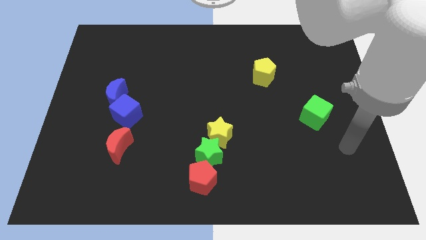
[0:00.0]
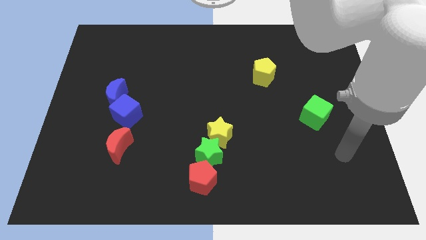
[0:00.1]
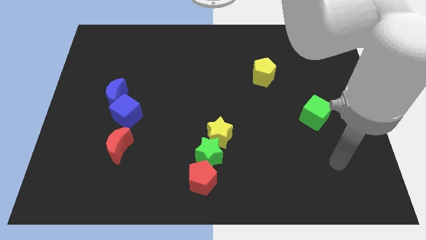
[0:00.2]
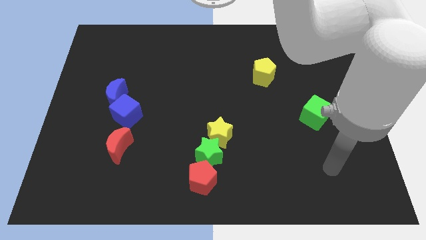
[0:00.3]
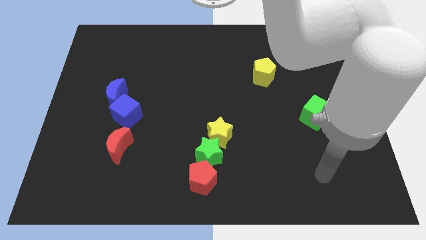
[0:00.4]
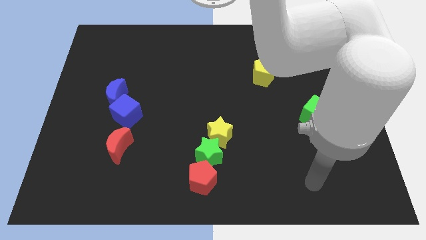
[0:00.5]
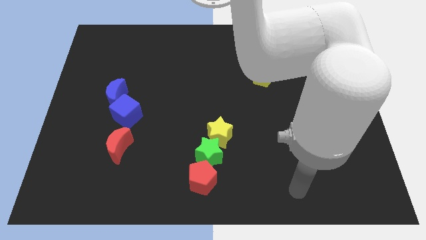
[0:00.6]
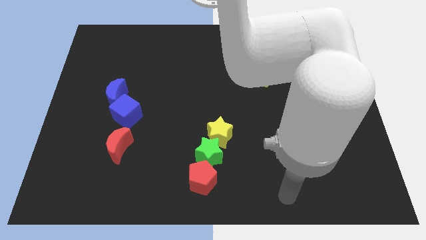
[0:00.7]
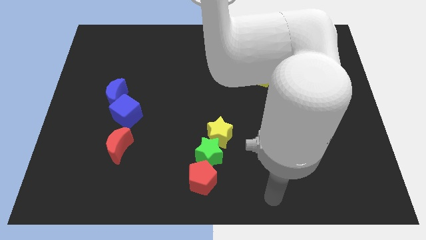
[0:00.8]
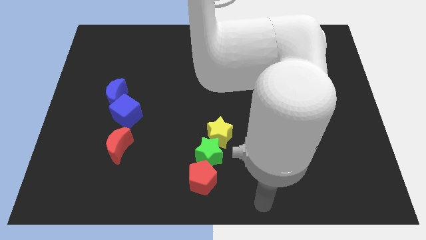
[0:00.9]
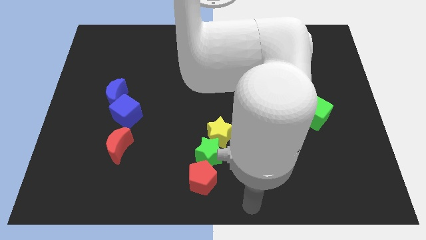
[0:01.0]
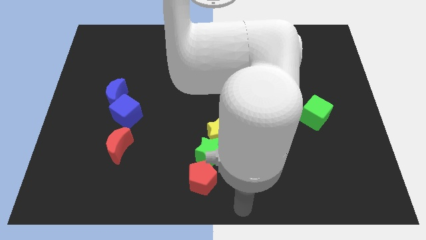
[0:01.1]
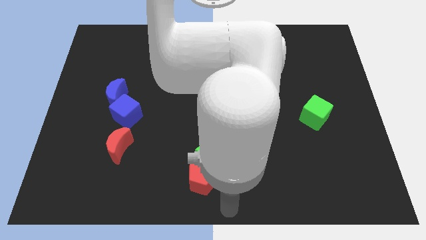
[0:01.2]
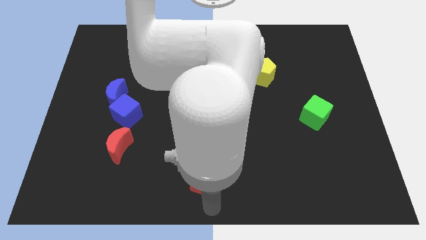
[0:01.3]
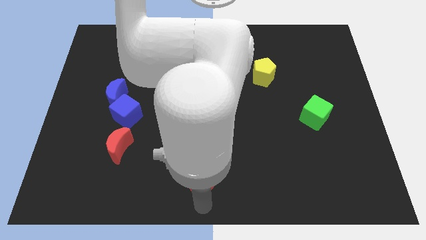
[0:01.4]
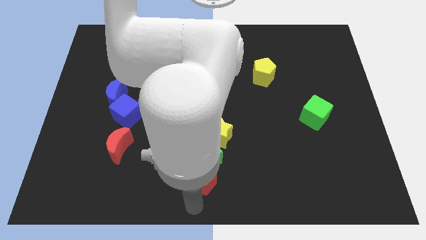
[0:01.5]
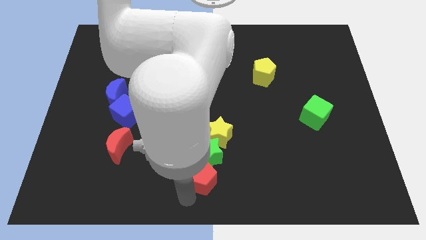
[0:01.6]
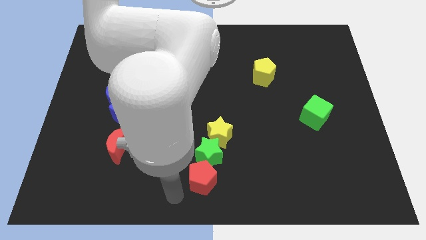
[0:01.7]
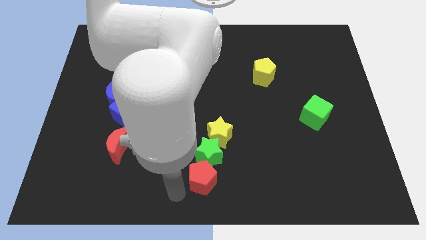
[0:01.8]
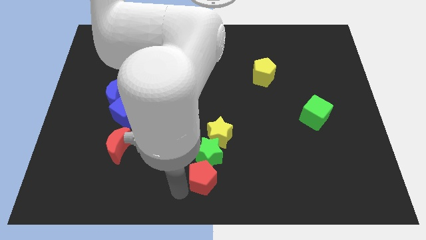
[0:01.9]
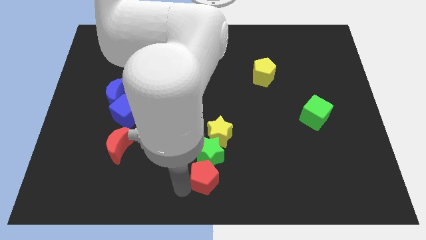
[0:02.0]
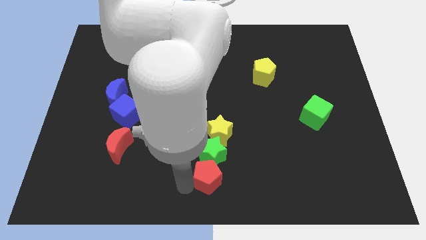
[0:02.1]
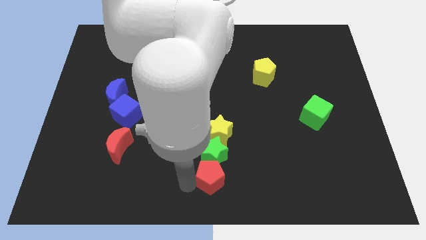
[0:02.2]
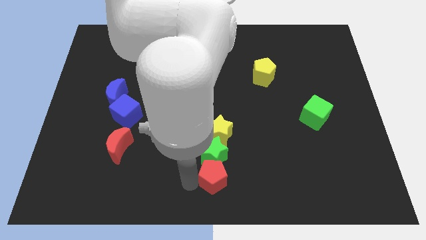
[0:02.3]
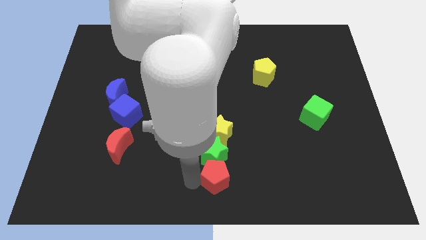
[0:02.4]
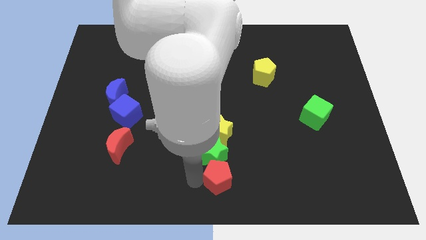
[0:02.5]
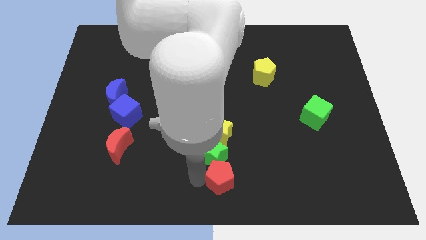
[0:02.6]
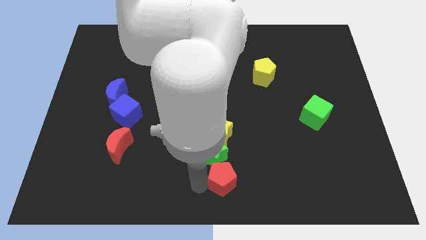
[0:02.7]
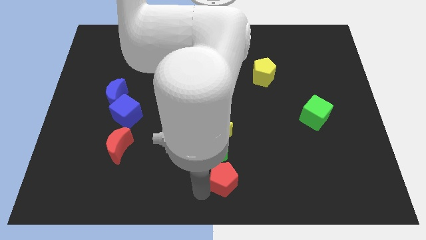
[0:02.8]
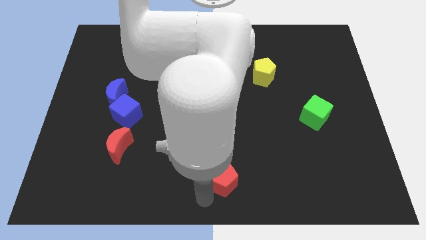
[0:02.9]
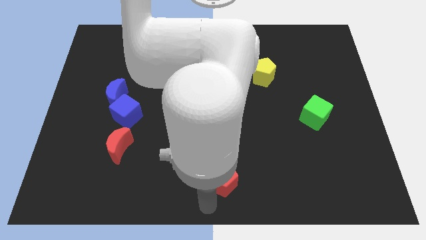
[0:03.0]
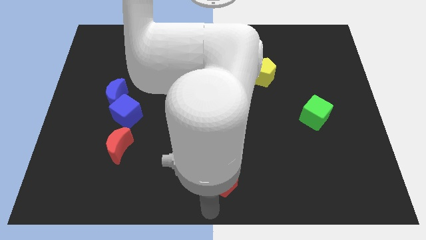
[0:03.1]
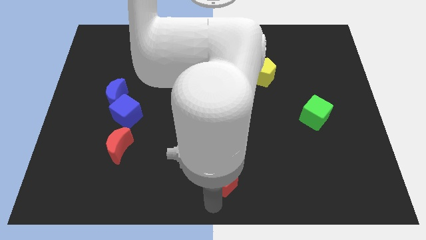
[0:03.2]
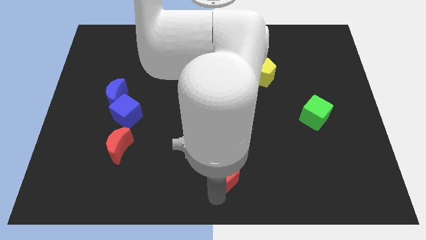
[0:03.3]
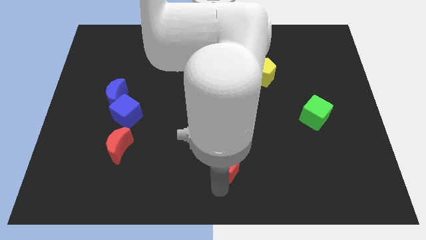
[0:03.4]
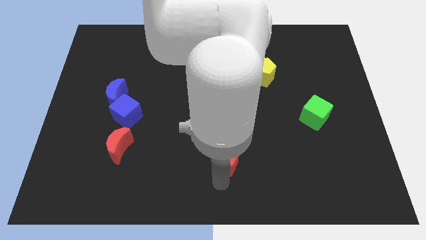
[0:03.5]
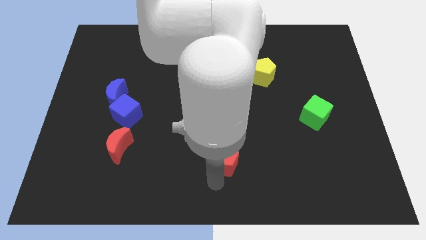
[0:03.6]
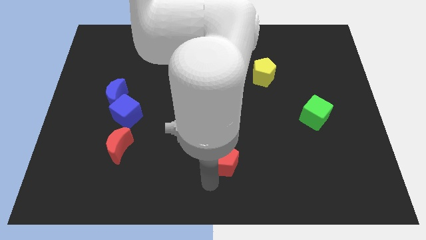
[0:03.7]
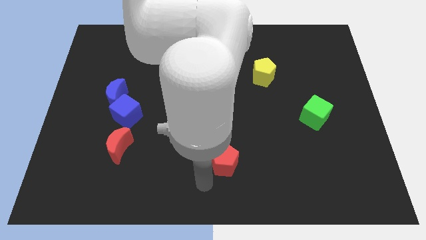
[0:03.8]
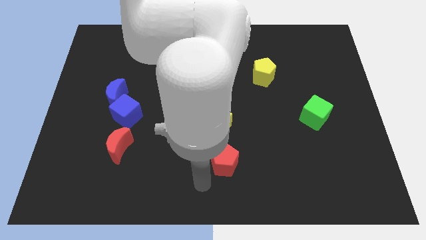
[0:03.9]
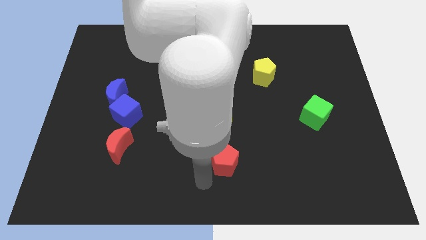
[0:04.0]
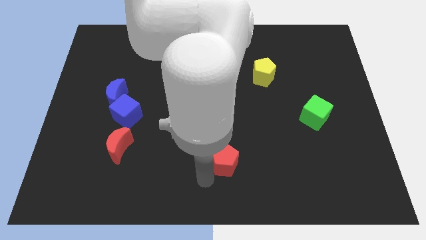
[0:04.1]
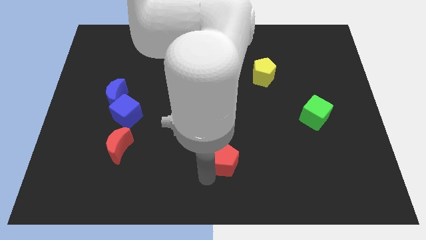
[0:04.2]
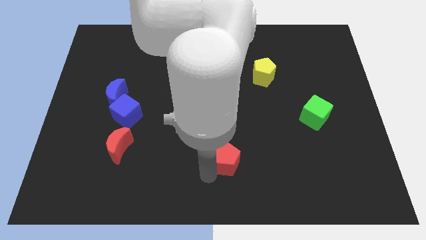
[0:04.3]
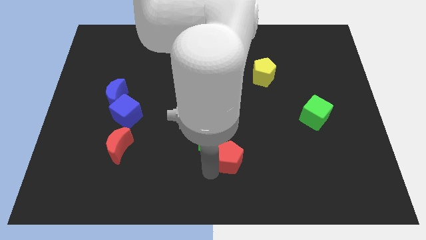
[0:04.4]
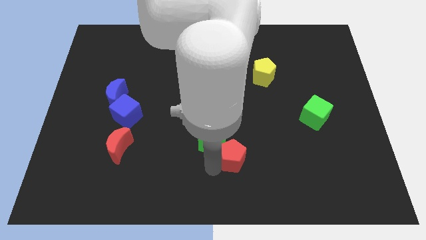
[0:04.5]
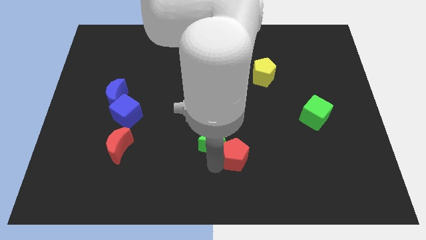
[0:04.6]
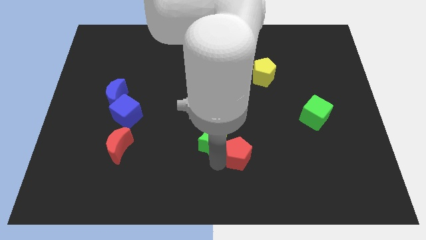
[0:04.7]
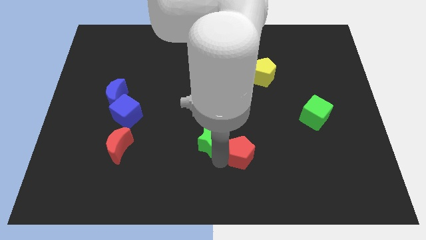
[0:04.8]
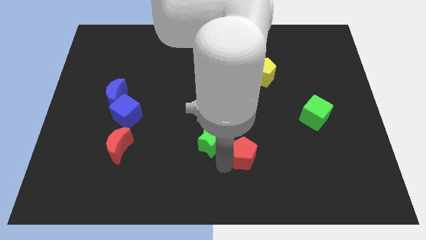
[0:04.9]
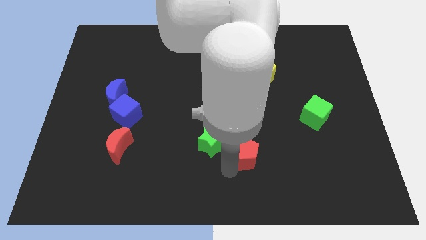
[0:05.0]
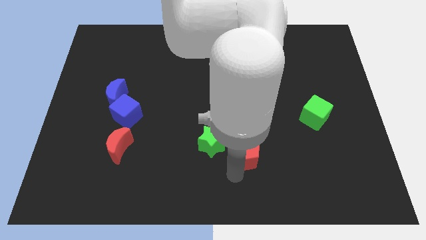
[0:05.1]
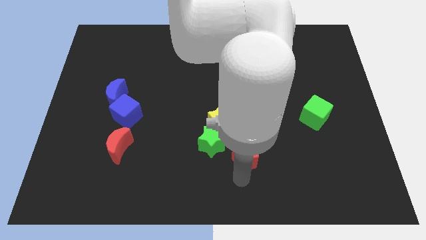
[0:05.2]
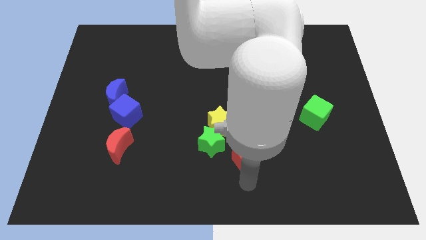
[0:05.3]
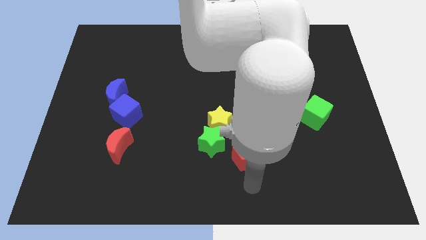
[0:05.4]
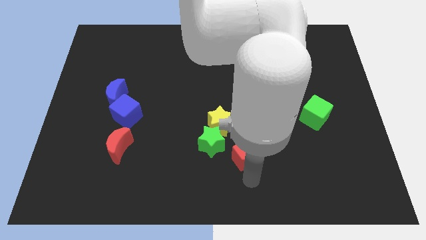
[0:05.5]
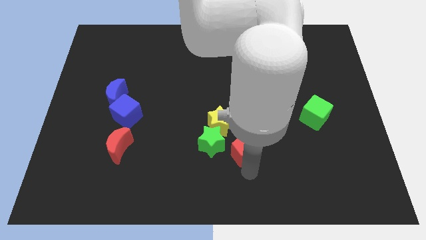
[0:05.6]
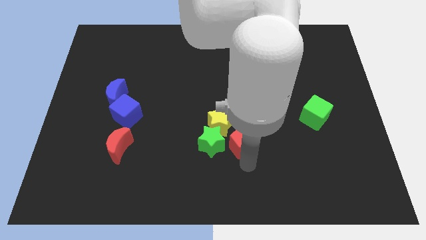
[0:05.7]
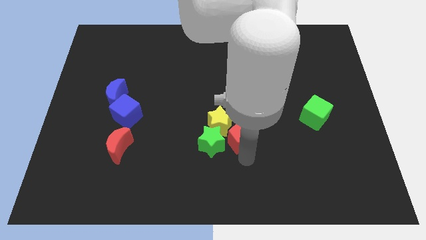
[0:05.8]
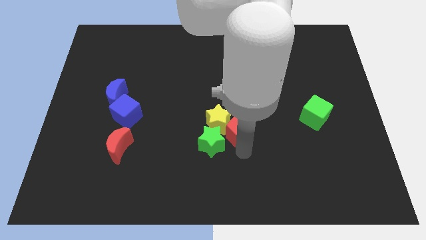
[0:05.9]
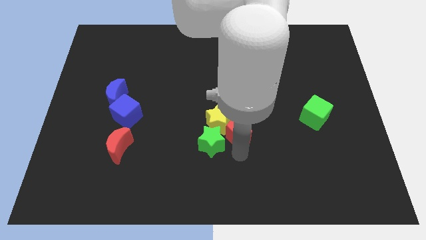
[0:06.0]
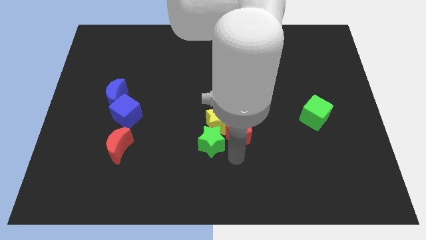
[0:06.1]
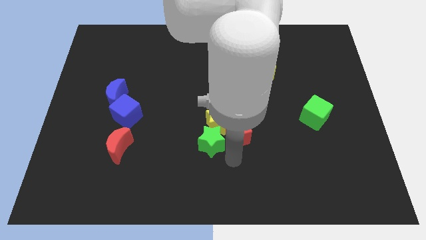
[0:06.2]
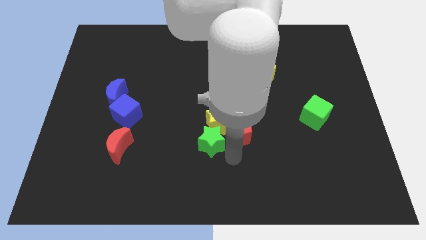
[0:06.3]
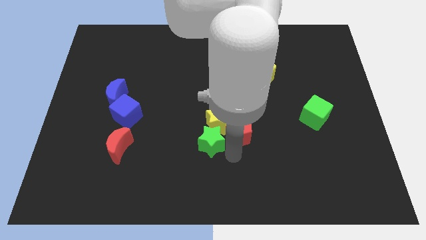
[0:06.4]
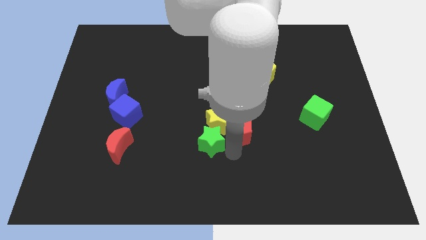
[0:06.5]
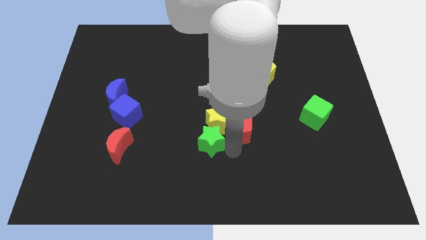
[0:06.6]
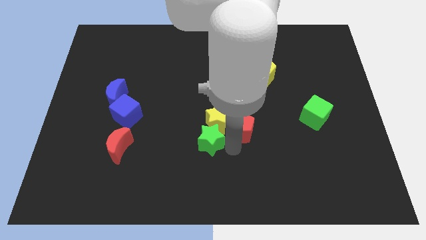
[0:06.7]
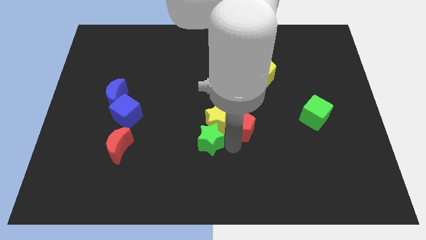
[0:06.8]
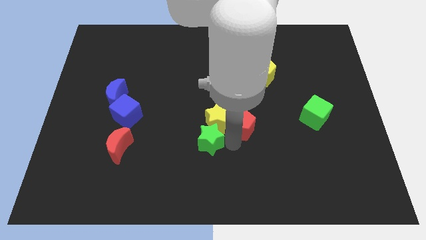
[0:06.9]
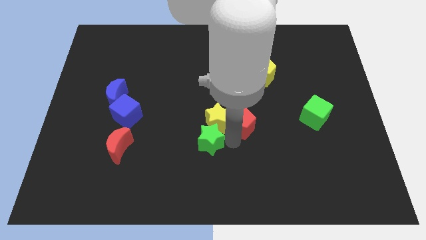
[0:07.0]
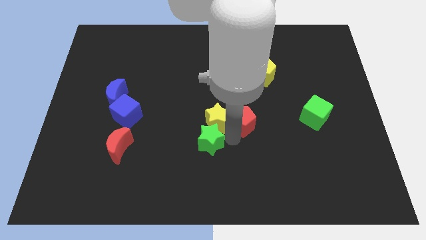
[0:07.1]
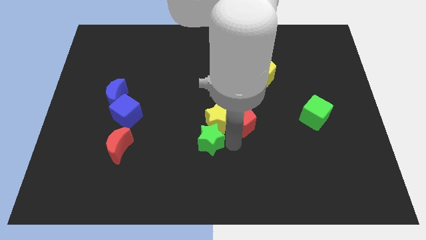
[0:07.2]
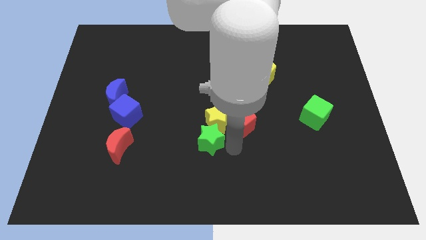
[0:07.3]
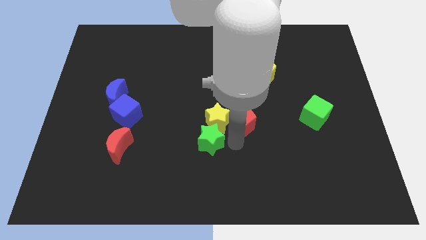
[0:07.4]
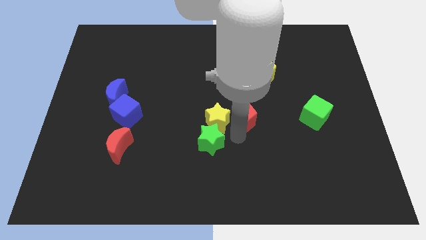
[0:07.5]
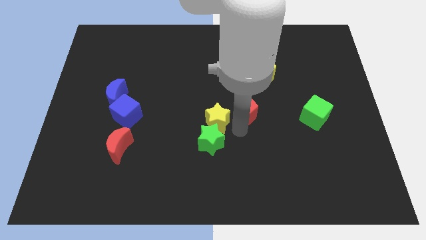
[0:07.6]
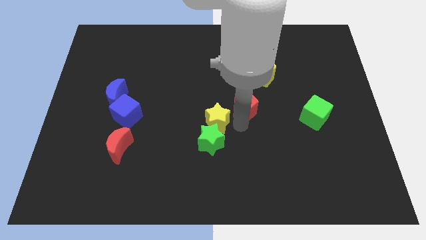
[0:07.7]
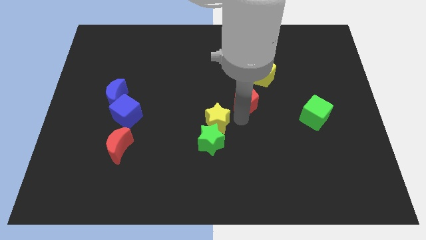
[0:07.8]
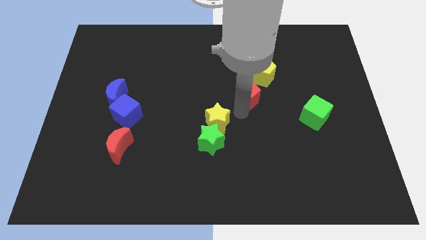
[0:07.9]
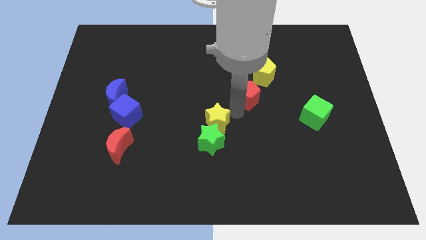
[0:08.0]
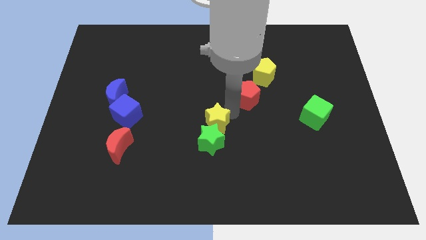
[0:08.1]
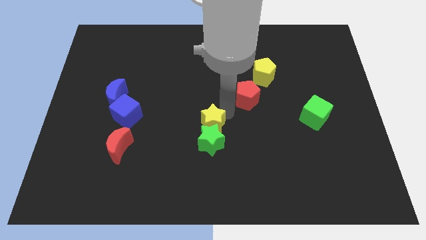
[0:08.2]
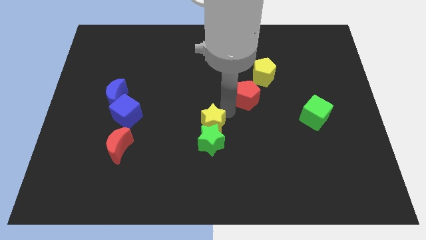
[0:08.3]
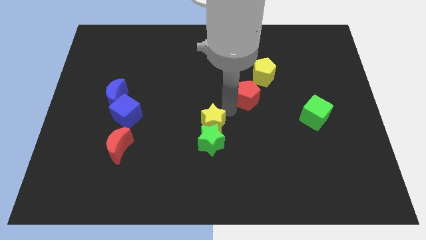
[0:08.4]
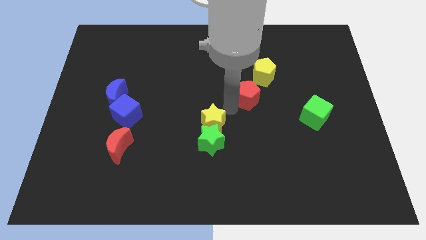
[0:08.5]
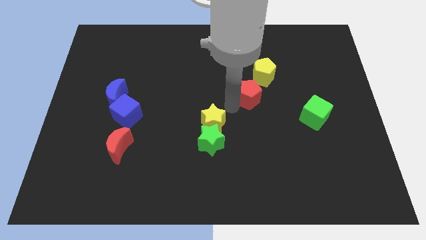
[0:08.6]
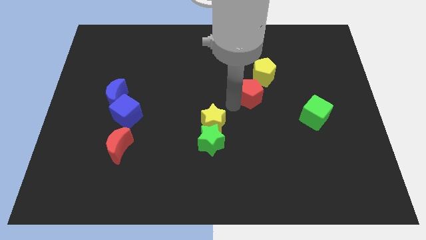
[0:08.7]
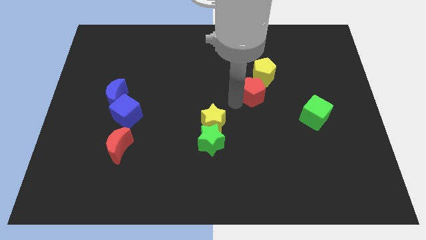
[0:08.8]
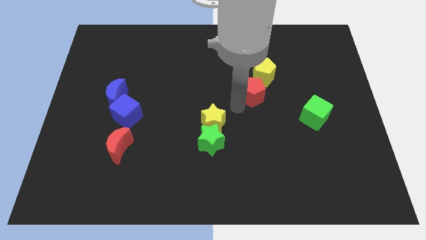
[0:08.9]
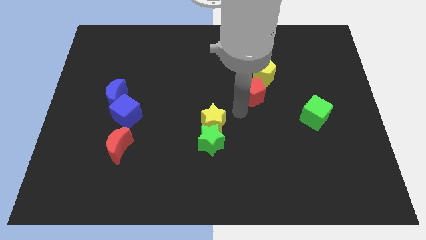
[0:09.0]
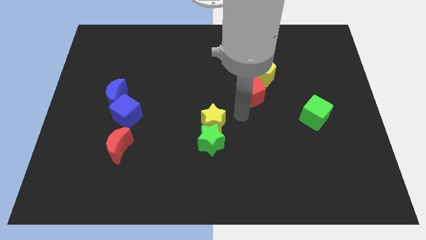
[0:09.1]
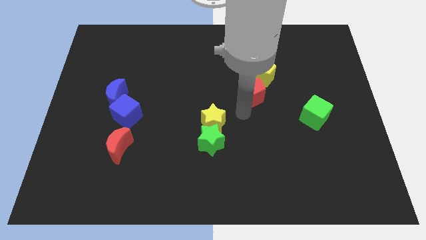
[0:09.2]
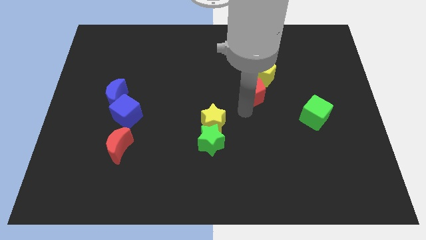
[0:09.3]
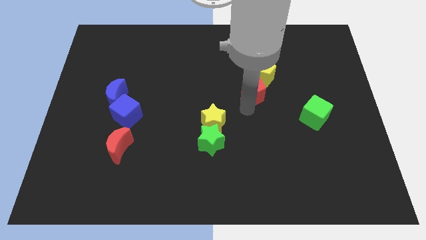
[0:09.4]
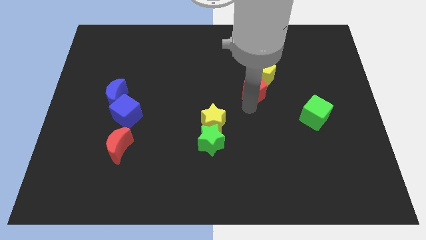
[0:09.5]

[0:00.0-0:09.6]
slide the red pentagon to the yellow pentagon
